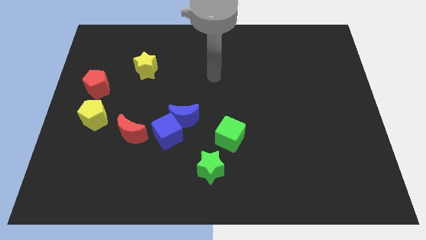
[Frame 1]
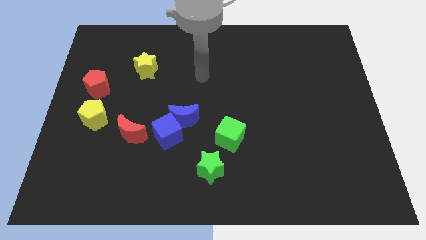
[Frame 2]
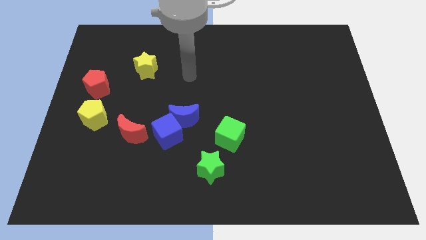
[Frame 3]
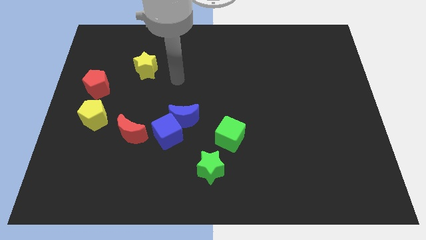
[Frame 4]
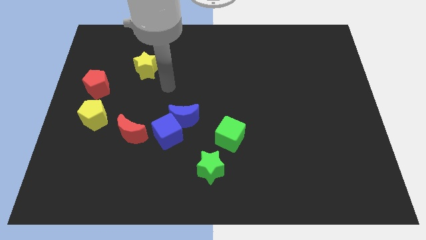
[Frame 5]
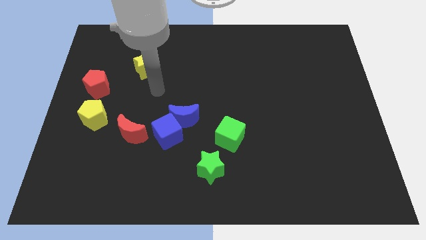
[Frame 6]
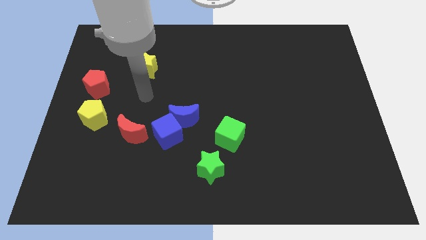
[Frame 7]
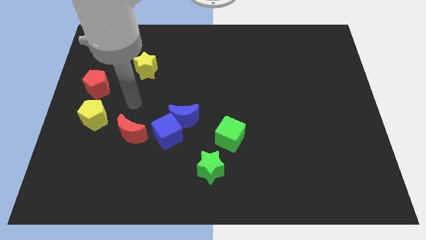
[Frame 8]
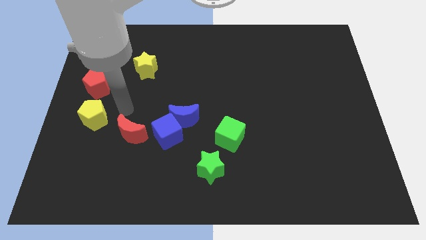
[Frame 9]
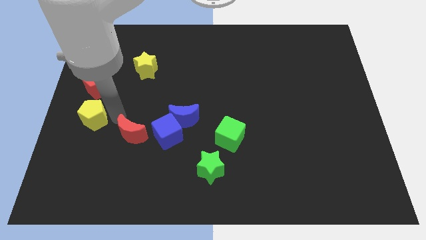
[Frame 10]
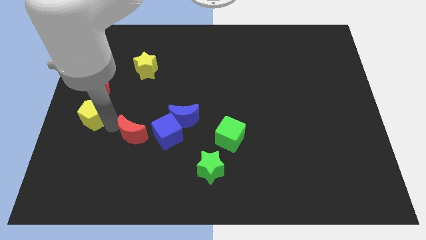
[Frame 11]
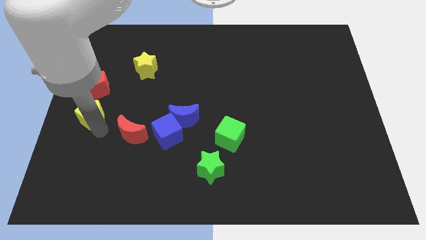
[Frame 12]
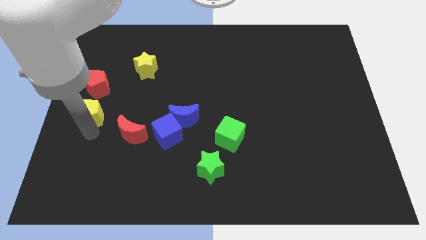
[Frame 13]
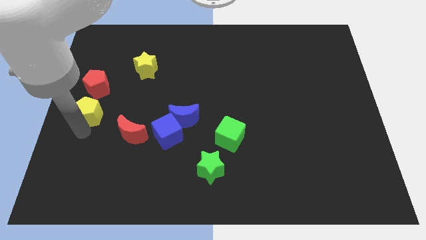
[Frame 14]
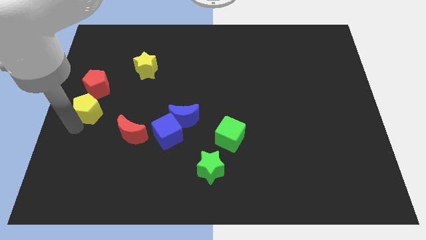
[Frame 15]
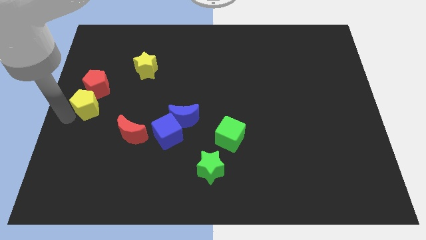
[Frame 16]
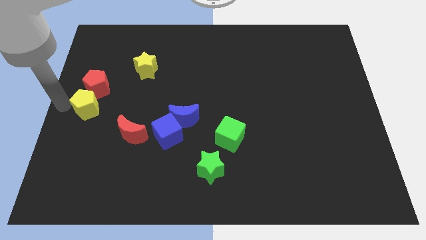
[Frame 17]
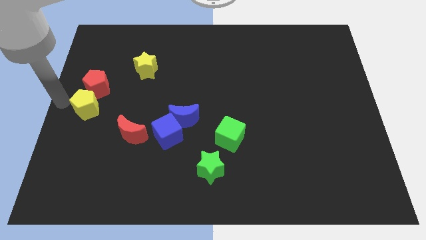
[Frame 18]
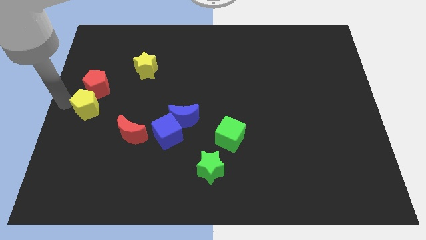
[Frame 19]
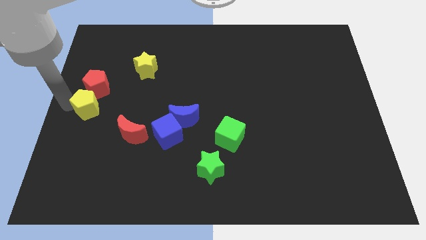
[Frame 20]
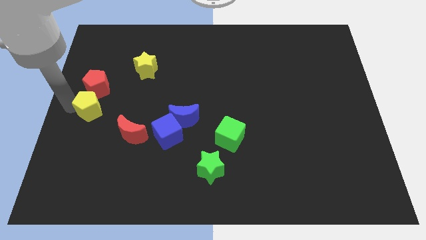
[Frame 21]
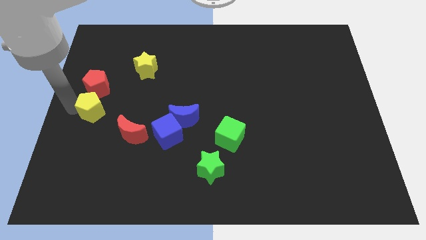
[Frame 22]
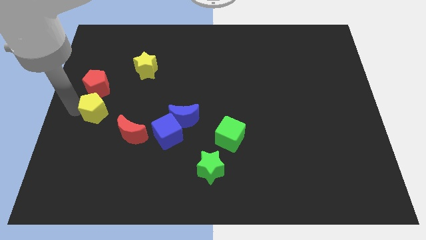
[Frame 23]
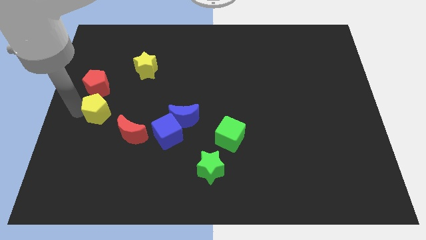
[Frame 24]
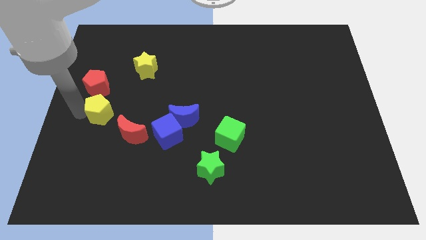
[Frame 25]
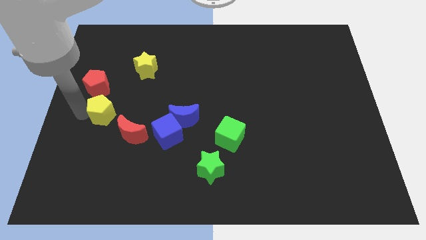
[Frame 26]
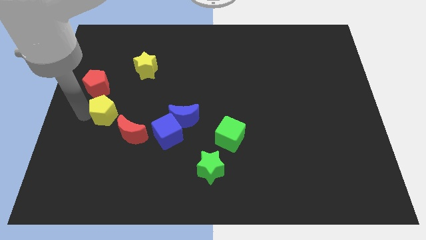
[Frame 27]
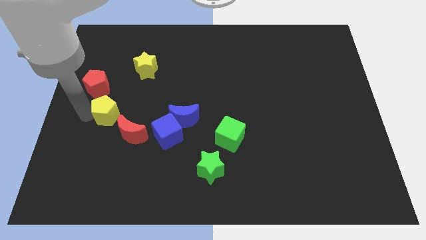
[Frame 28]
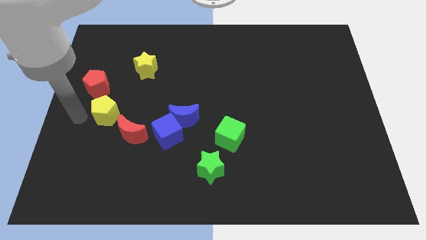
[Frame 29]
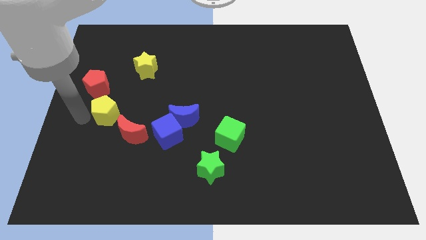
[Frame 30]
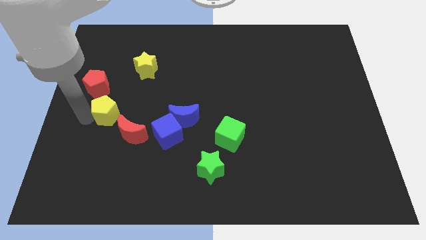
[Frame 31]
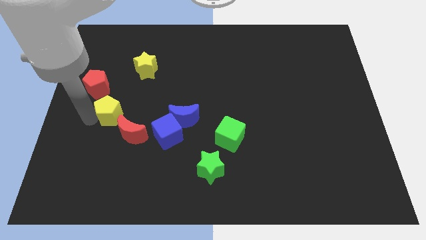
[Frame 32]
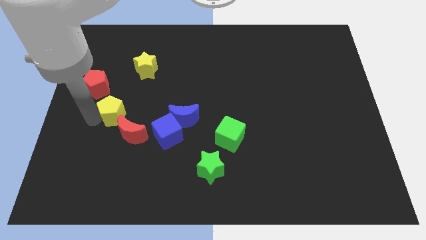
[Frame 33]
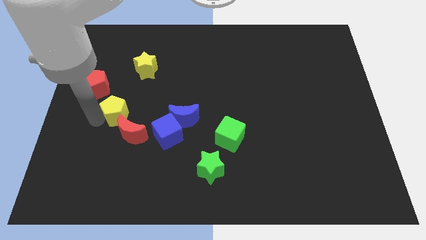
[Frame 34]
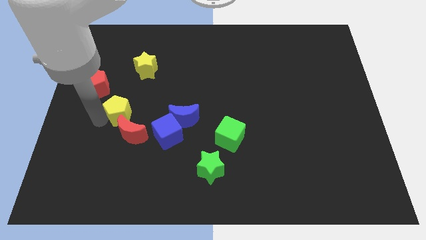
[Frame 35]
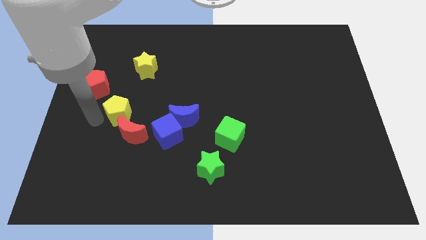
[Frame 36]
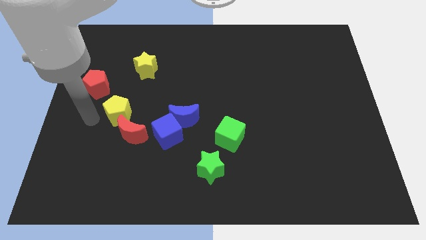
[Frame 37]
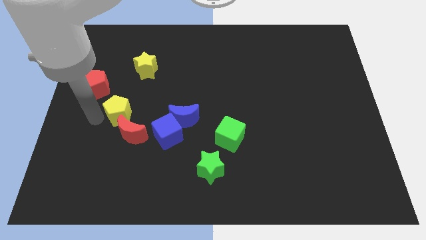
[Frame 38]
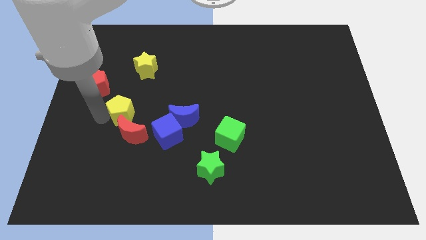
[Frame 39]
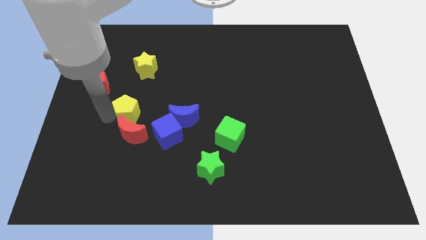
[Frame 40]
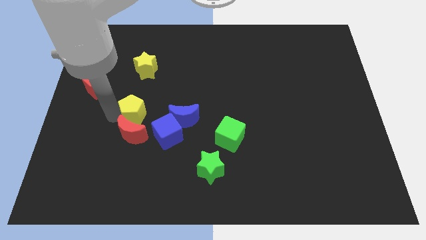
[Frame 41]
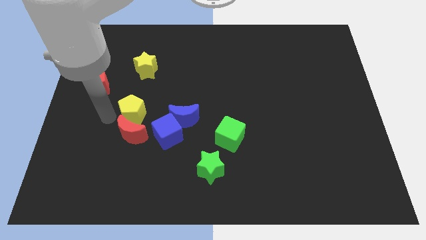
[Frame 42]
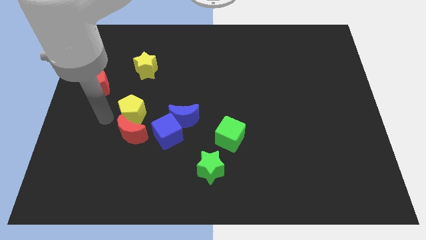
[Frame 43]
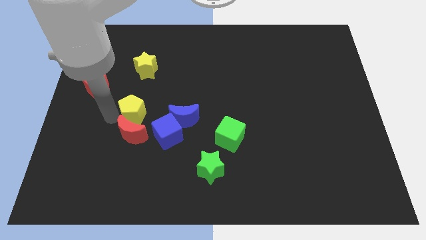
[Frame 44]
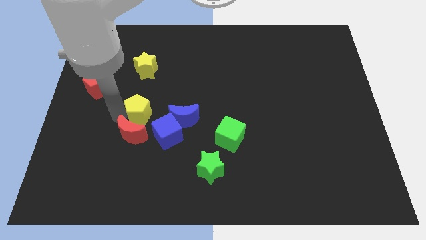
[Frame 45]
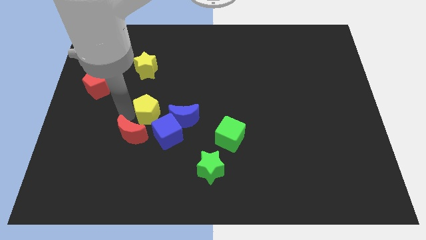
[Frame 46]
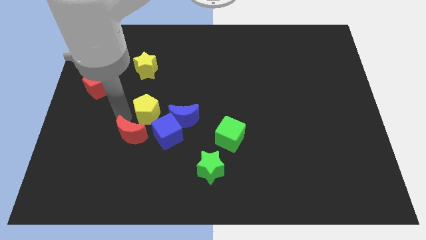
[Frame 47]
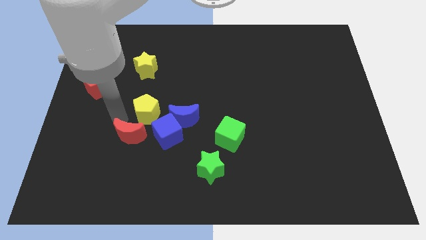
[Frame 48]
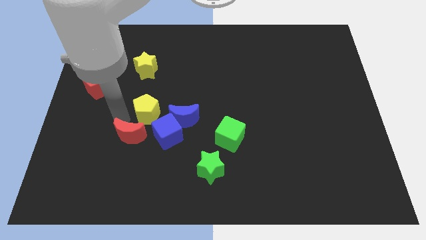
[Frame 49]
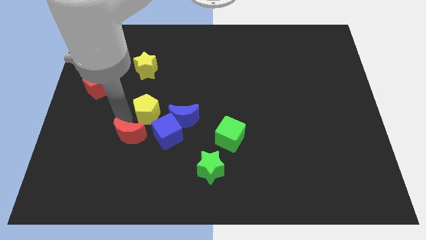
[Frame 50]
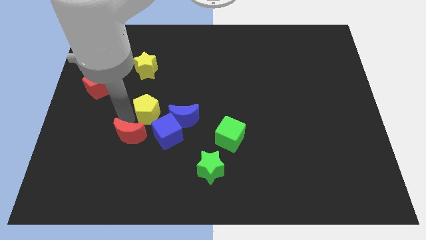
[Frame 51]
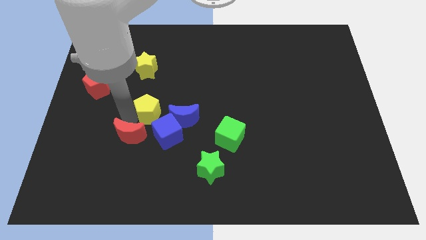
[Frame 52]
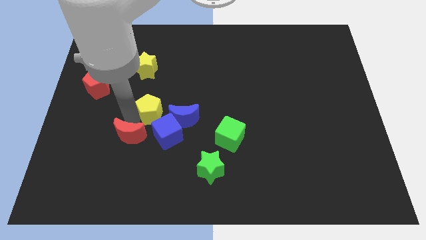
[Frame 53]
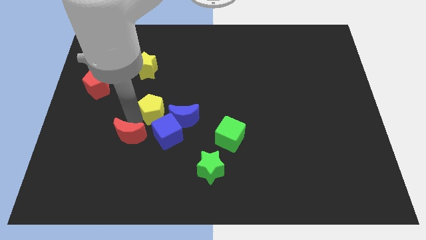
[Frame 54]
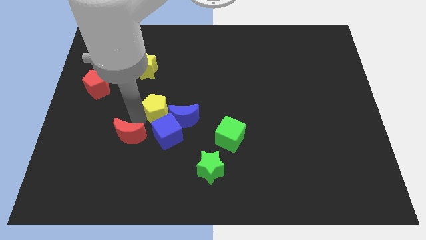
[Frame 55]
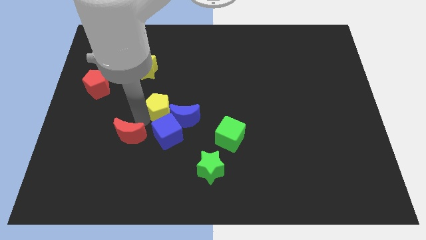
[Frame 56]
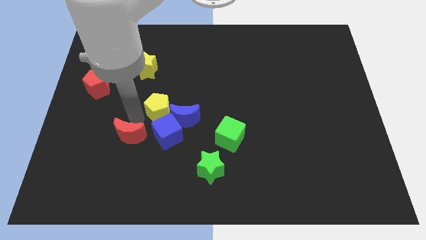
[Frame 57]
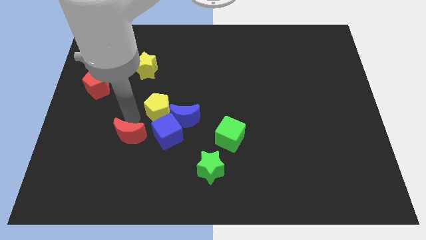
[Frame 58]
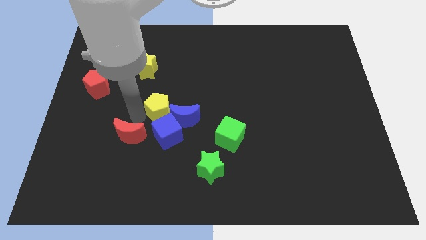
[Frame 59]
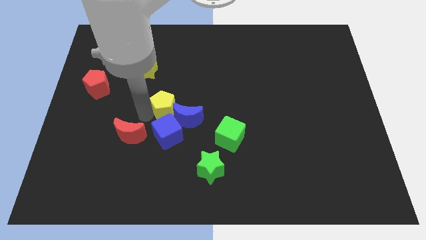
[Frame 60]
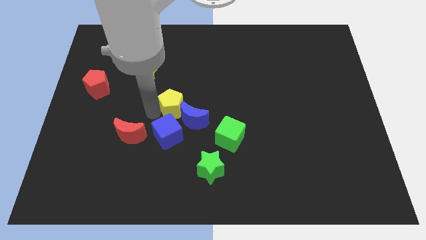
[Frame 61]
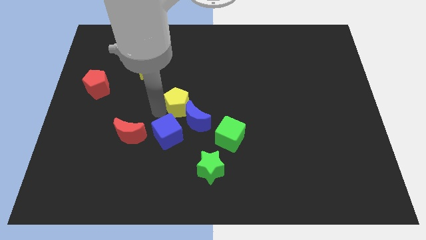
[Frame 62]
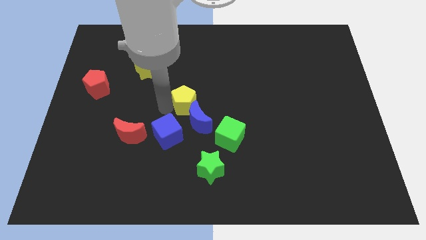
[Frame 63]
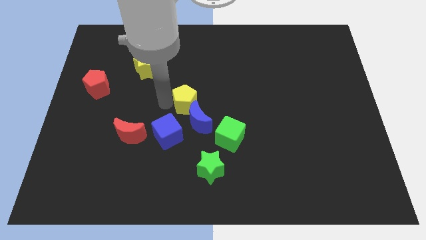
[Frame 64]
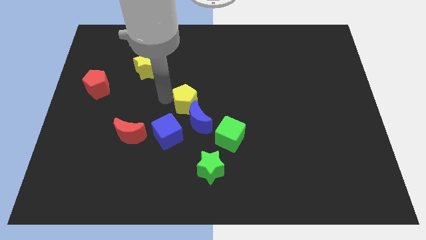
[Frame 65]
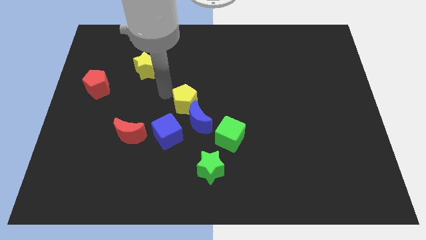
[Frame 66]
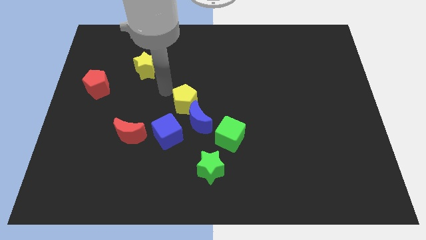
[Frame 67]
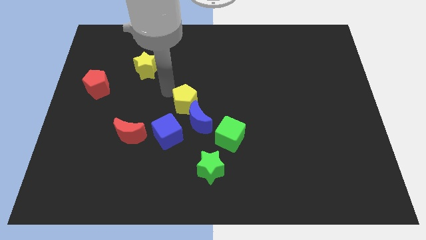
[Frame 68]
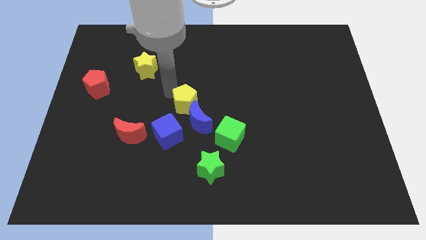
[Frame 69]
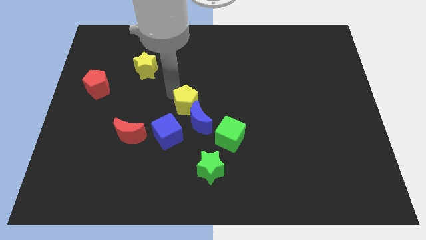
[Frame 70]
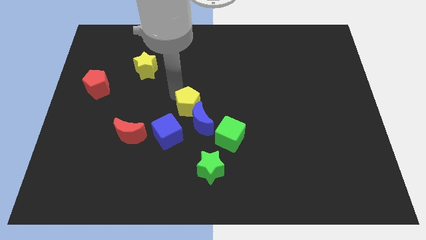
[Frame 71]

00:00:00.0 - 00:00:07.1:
slide the yellow pentagon diagonally up and to the left of the green cube

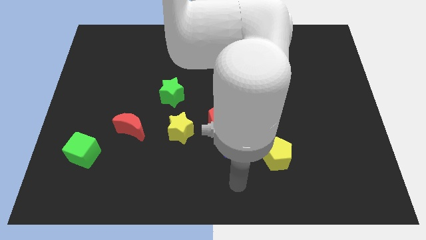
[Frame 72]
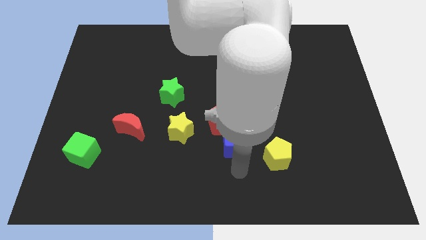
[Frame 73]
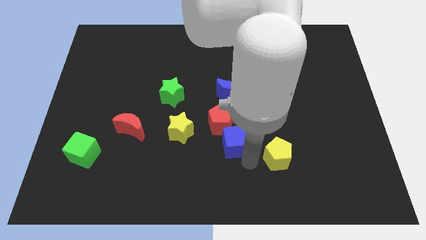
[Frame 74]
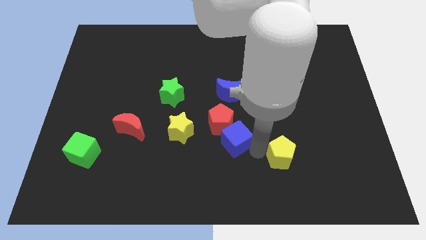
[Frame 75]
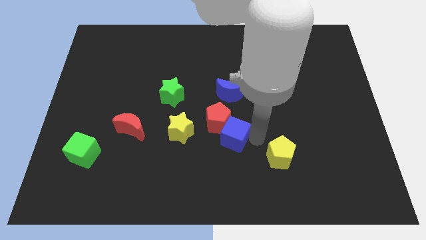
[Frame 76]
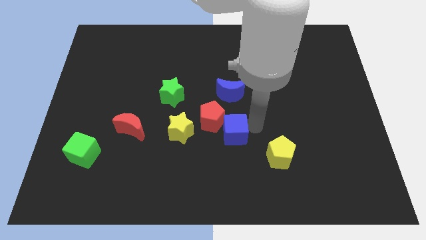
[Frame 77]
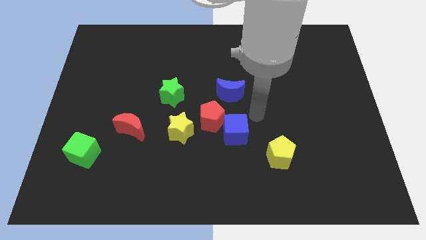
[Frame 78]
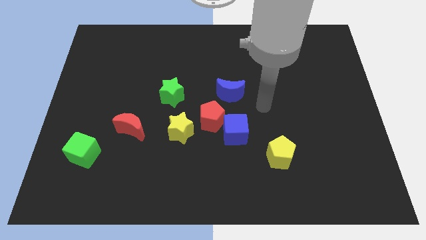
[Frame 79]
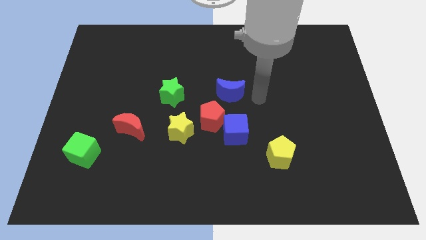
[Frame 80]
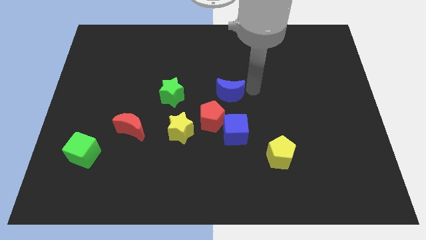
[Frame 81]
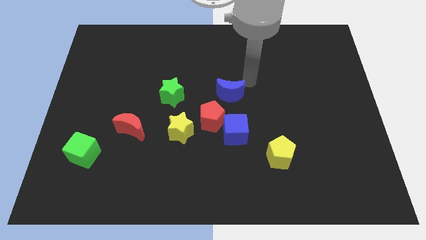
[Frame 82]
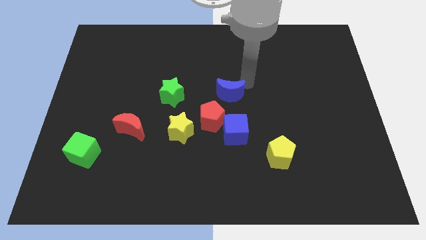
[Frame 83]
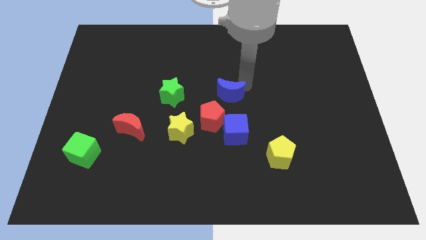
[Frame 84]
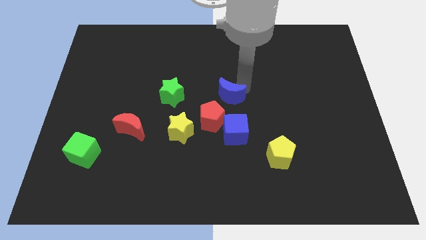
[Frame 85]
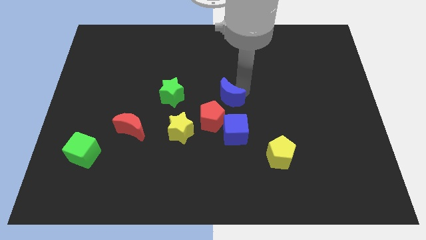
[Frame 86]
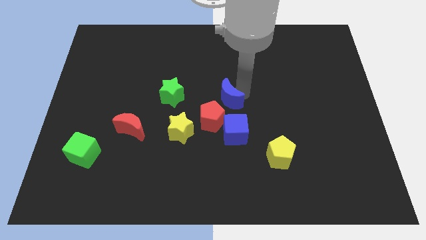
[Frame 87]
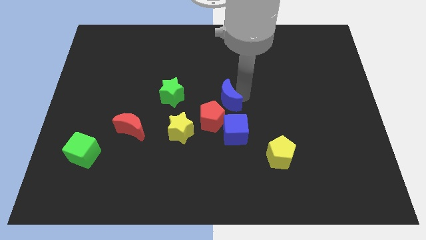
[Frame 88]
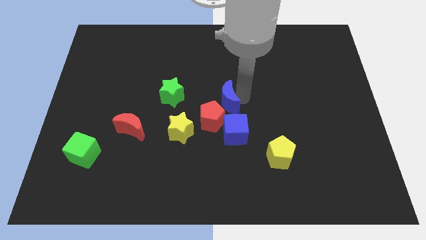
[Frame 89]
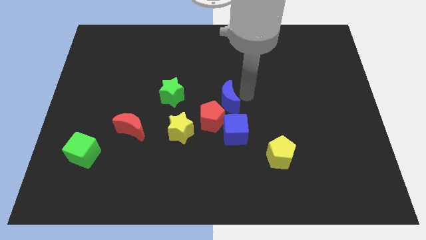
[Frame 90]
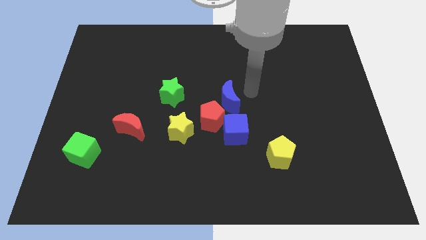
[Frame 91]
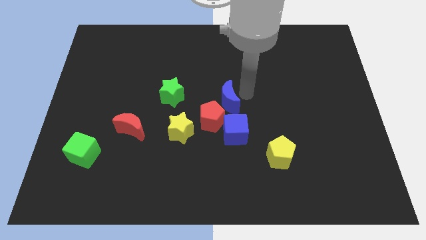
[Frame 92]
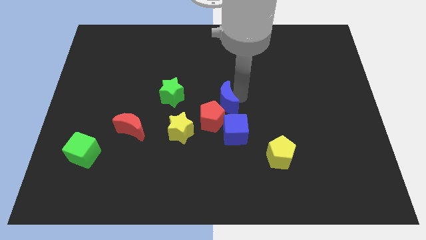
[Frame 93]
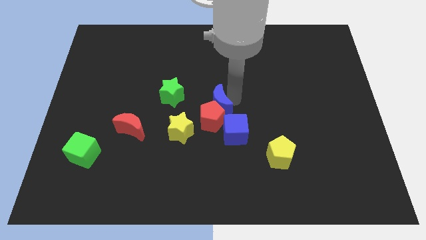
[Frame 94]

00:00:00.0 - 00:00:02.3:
push the blue moon to the top right of the yellow star
